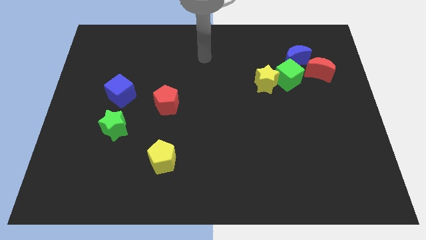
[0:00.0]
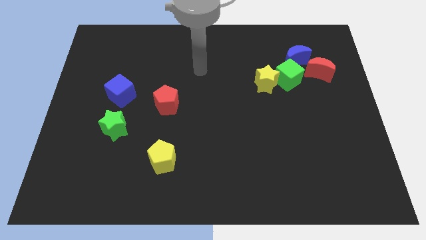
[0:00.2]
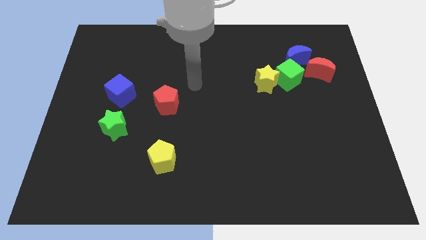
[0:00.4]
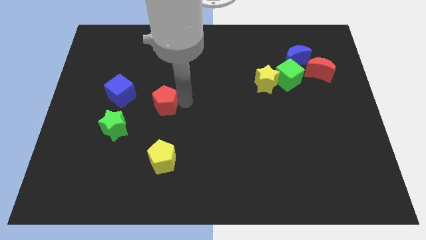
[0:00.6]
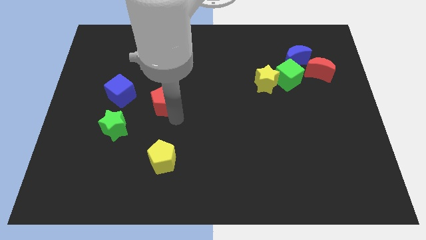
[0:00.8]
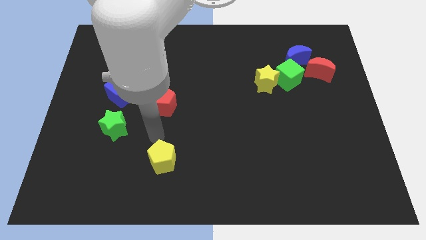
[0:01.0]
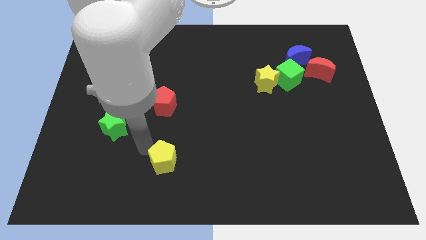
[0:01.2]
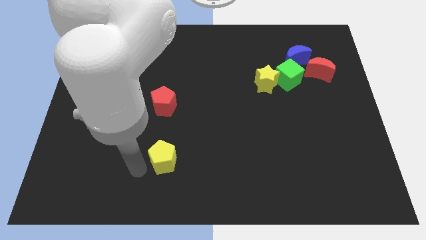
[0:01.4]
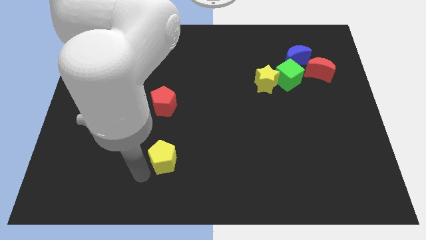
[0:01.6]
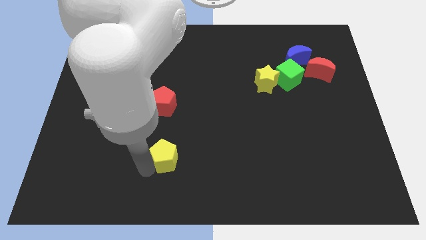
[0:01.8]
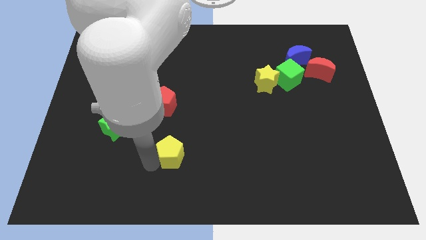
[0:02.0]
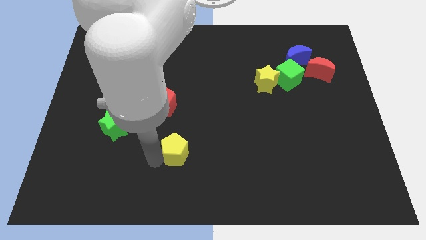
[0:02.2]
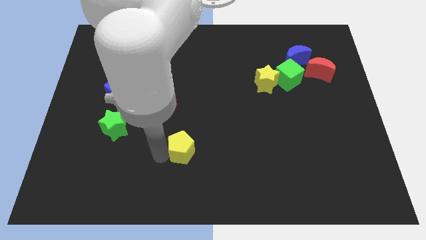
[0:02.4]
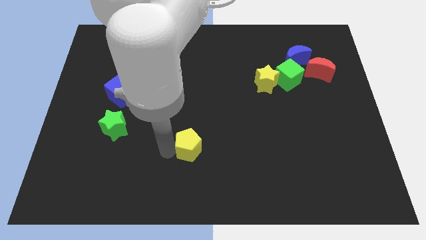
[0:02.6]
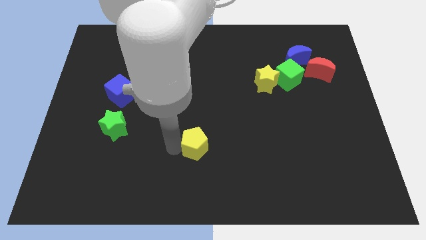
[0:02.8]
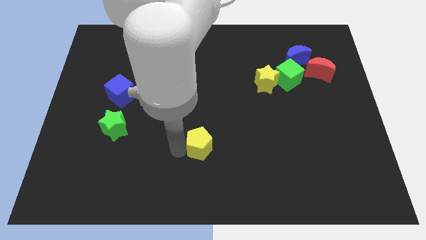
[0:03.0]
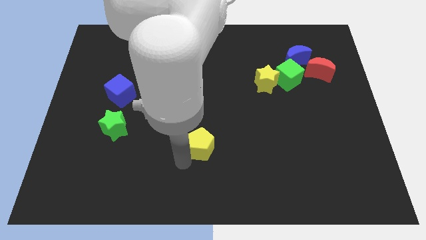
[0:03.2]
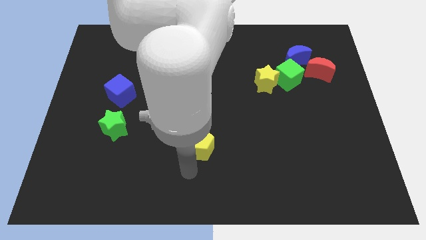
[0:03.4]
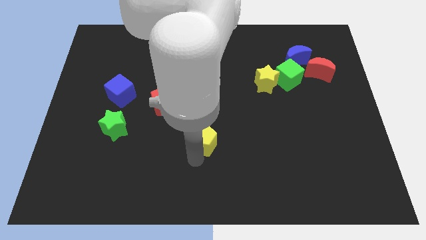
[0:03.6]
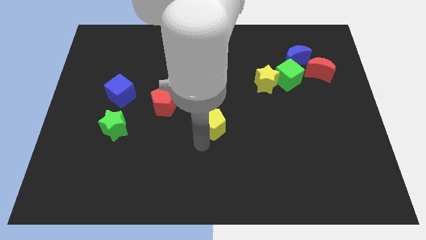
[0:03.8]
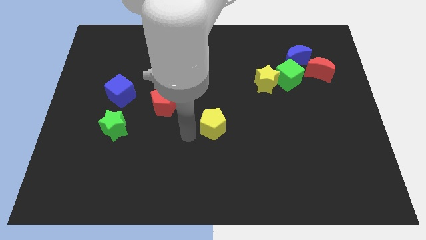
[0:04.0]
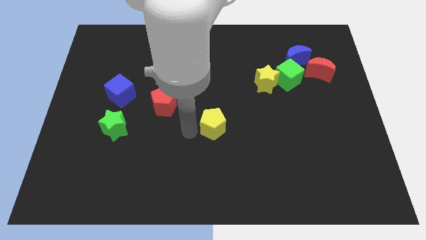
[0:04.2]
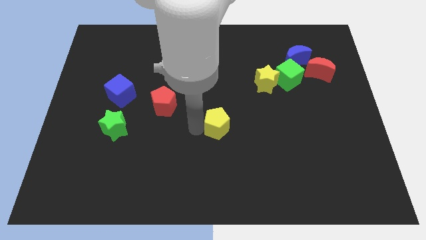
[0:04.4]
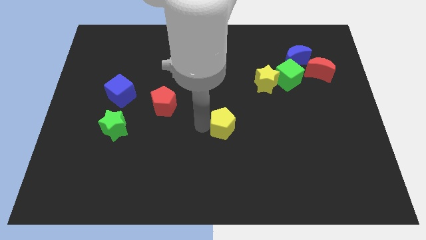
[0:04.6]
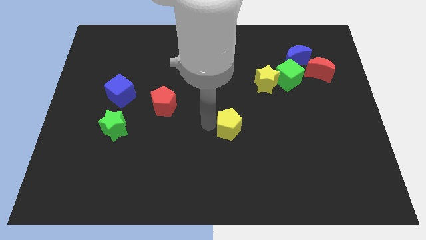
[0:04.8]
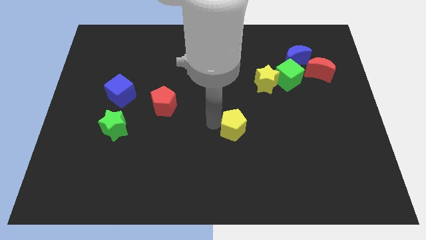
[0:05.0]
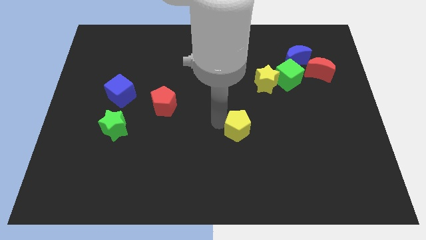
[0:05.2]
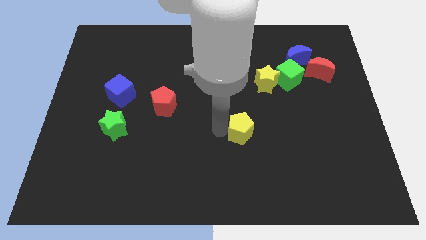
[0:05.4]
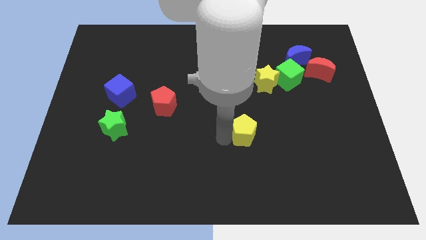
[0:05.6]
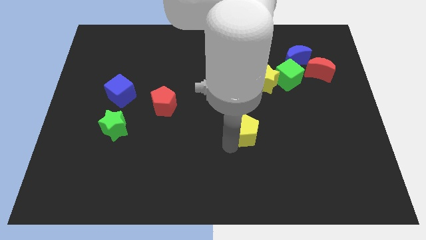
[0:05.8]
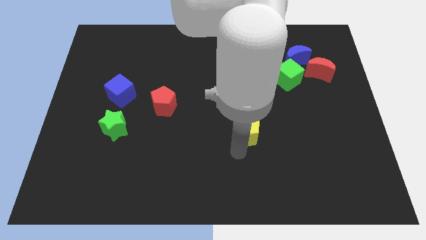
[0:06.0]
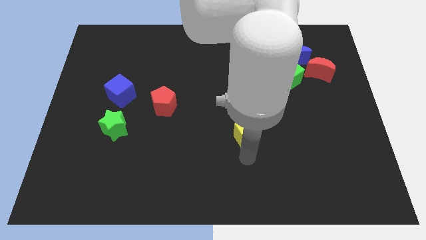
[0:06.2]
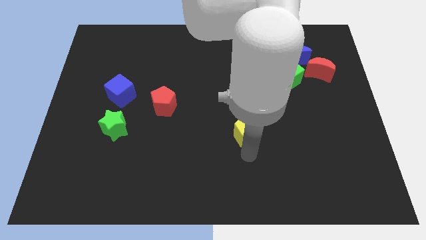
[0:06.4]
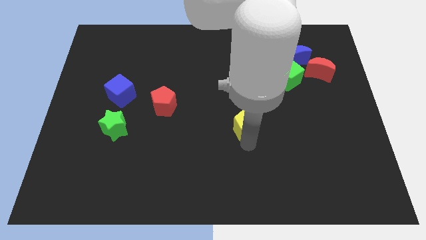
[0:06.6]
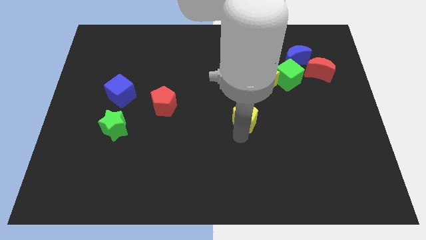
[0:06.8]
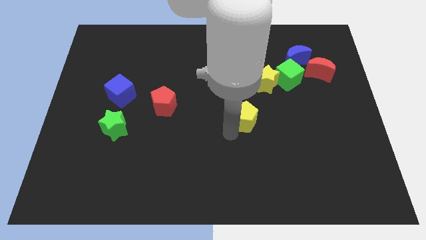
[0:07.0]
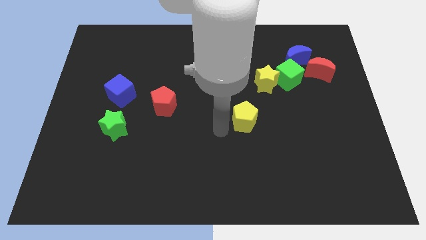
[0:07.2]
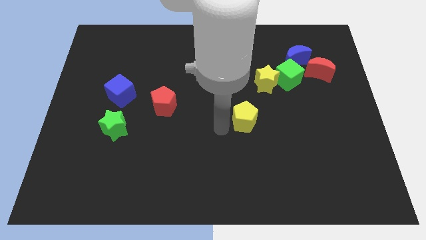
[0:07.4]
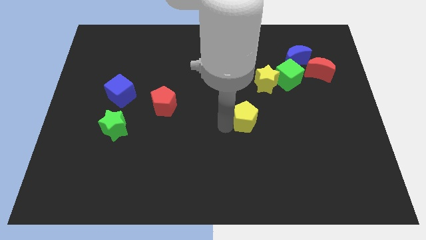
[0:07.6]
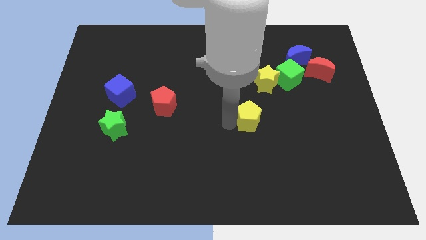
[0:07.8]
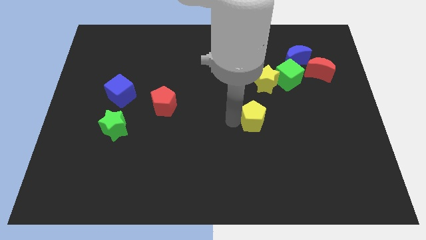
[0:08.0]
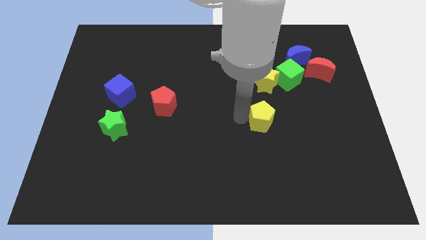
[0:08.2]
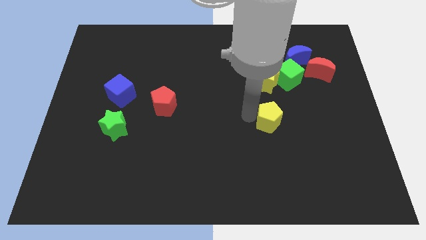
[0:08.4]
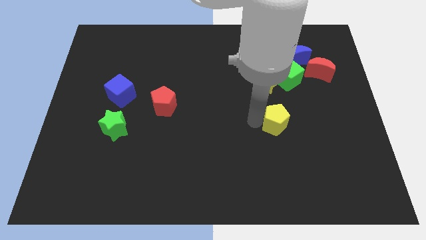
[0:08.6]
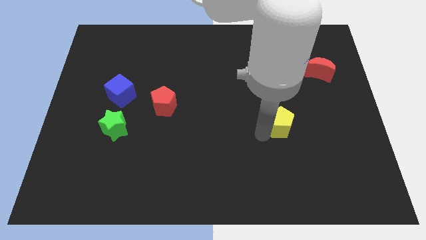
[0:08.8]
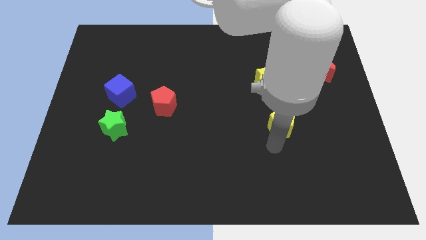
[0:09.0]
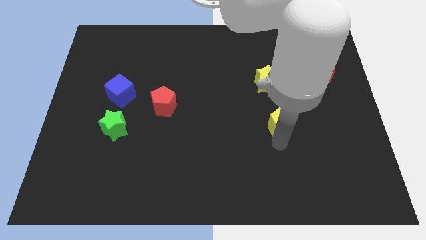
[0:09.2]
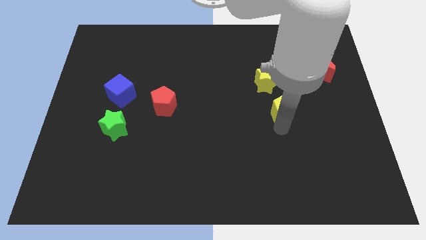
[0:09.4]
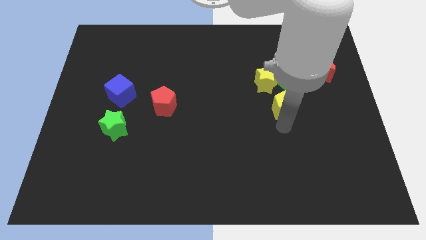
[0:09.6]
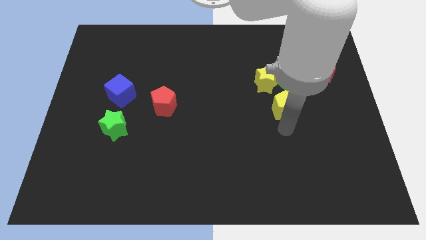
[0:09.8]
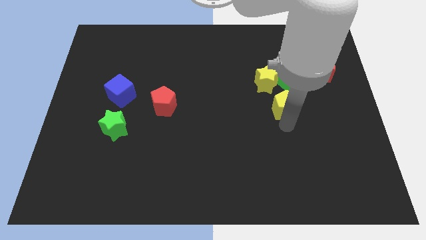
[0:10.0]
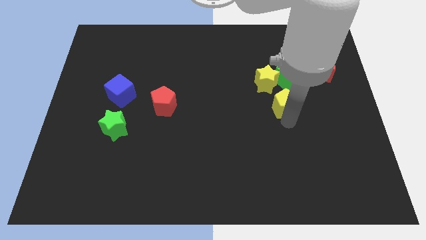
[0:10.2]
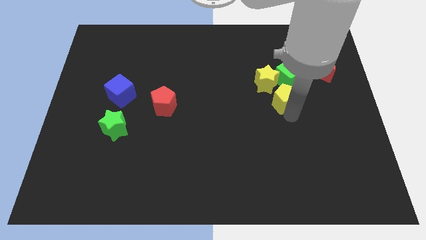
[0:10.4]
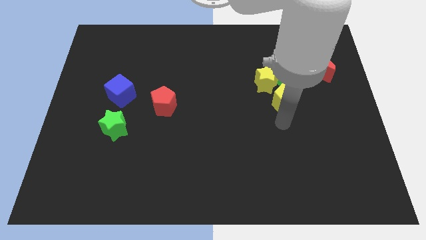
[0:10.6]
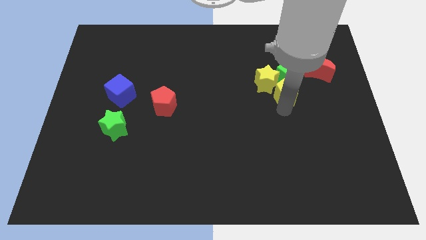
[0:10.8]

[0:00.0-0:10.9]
slide the yellow pentagon towards the green cube

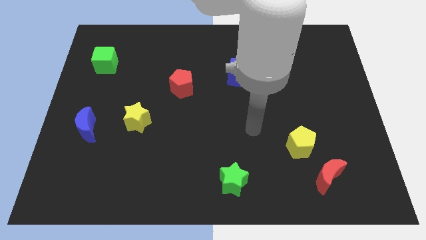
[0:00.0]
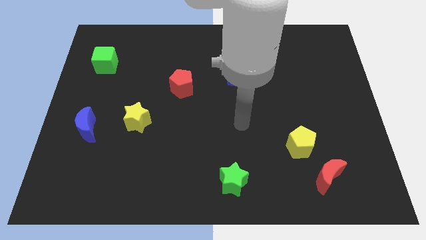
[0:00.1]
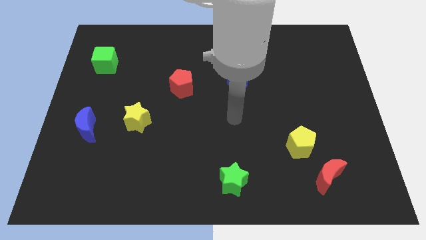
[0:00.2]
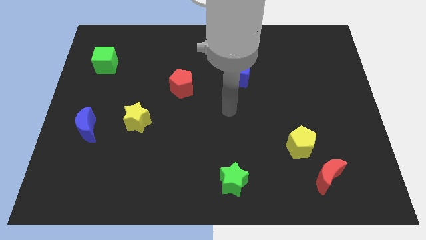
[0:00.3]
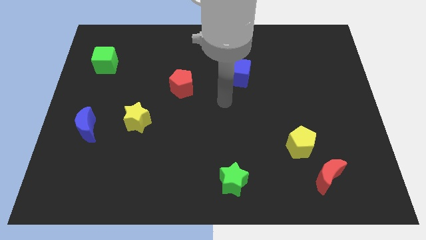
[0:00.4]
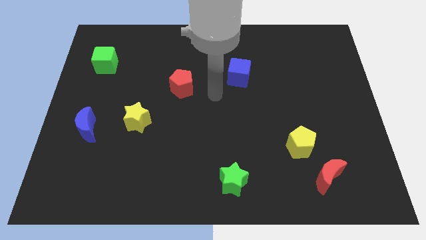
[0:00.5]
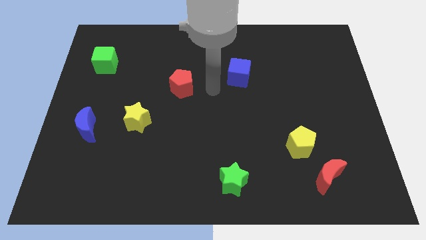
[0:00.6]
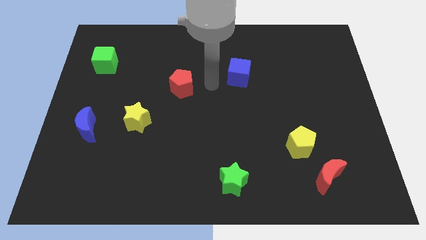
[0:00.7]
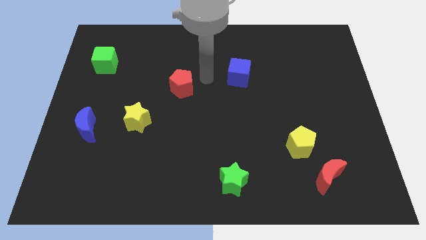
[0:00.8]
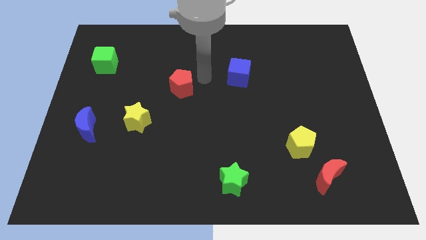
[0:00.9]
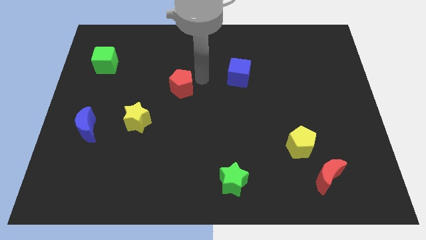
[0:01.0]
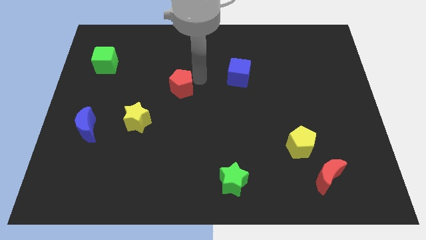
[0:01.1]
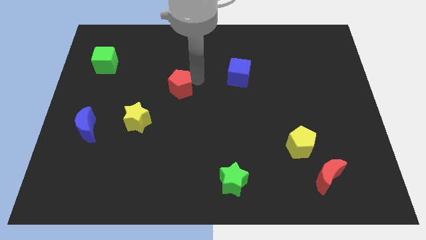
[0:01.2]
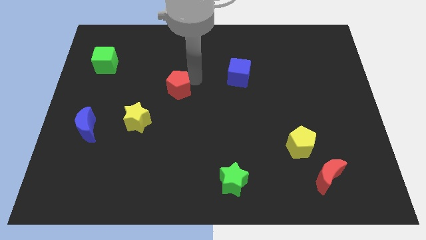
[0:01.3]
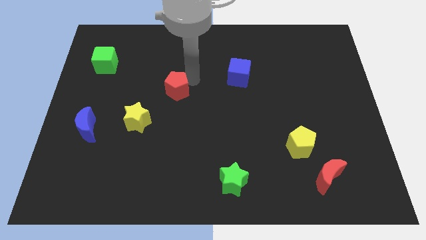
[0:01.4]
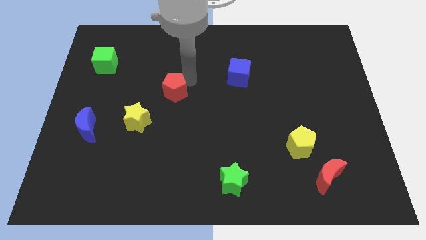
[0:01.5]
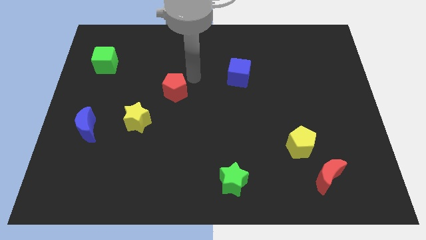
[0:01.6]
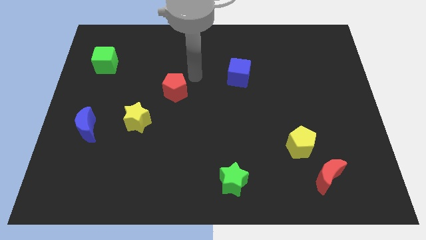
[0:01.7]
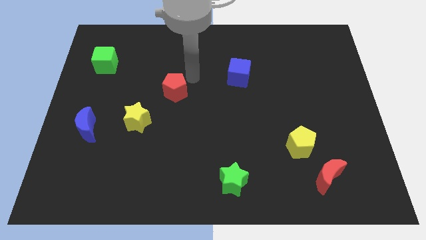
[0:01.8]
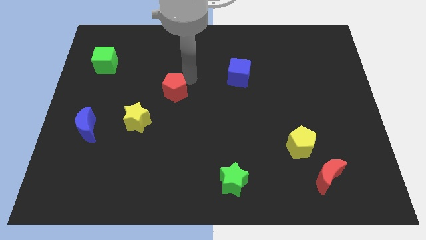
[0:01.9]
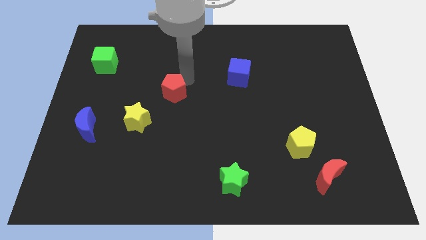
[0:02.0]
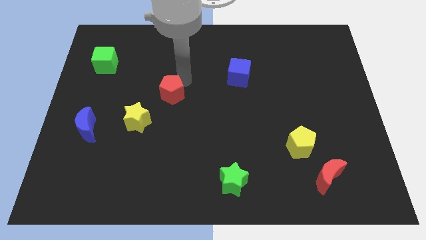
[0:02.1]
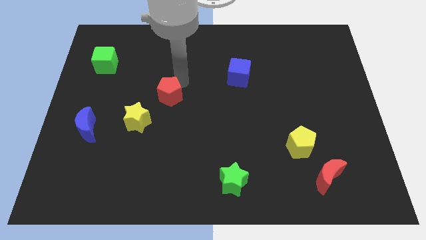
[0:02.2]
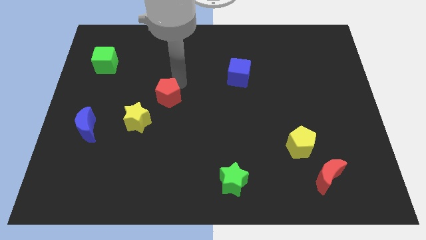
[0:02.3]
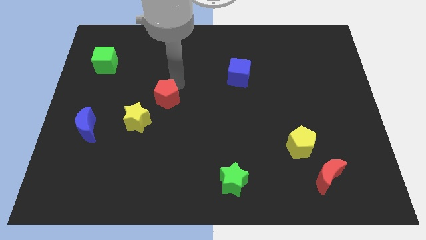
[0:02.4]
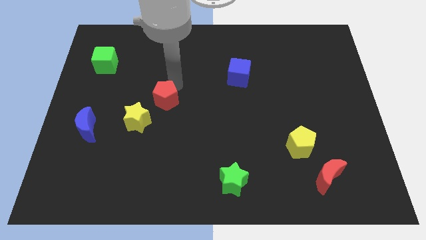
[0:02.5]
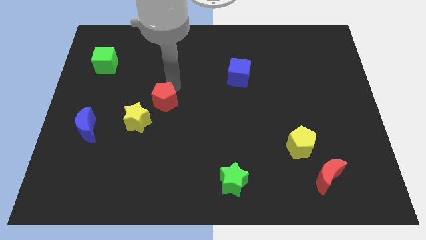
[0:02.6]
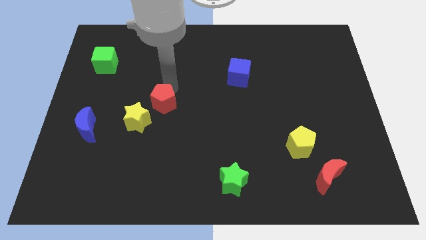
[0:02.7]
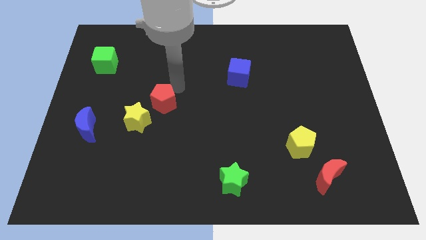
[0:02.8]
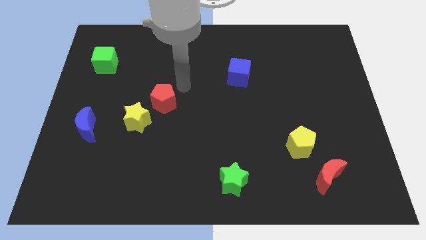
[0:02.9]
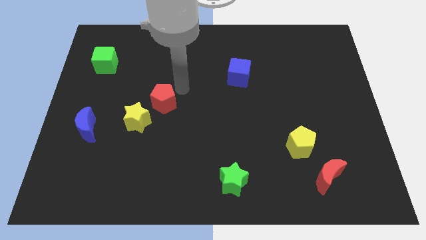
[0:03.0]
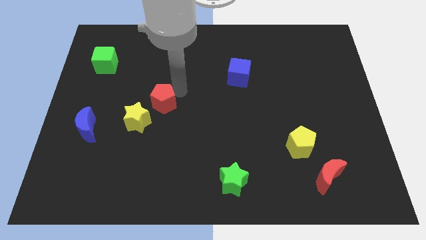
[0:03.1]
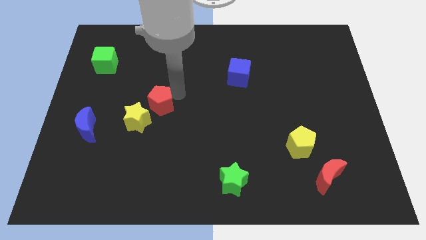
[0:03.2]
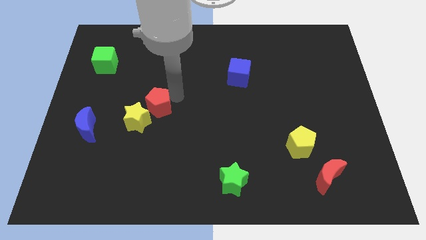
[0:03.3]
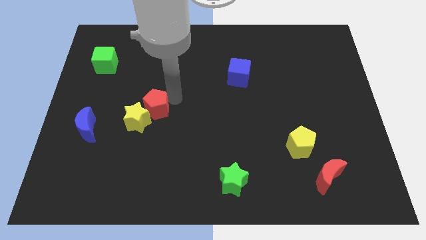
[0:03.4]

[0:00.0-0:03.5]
slide the red pentagon close to the yellow star
